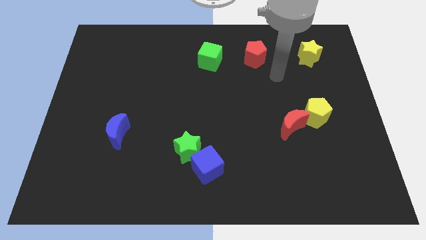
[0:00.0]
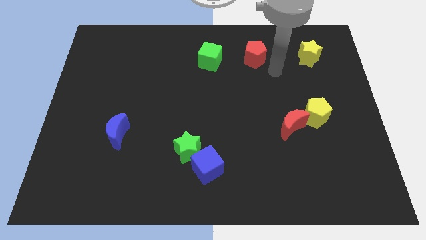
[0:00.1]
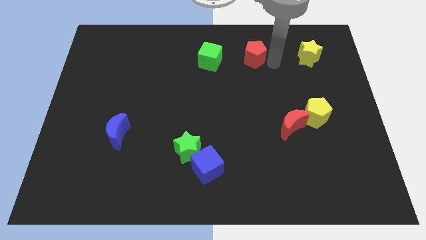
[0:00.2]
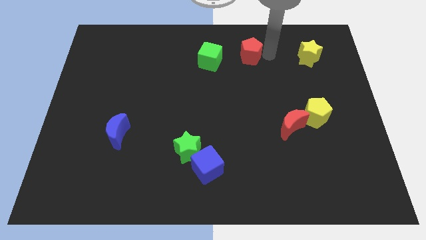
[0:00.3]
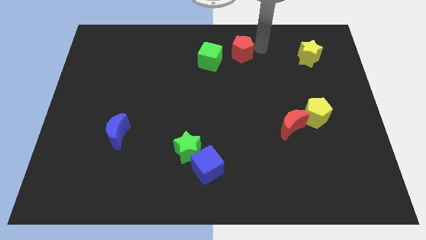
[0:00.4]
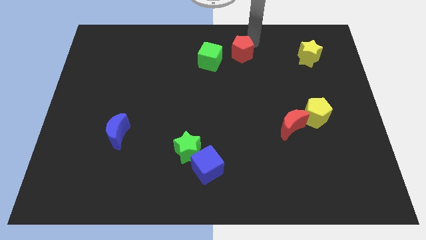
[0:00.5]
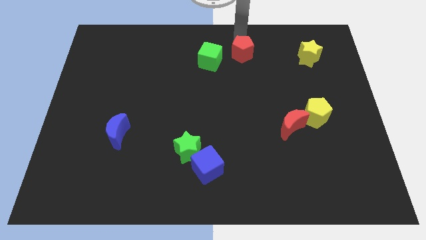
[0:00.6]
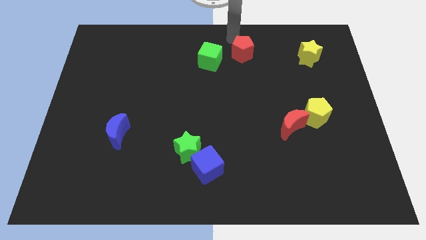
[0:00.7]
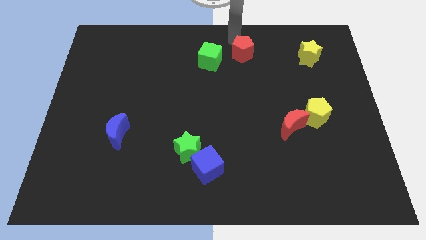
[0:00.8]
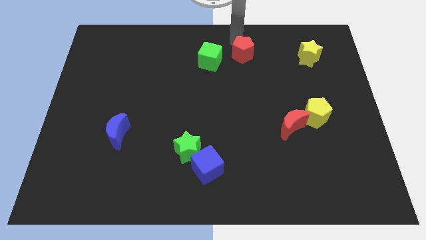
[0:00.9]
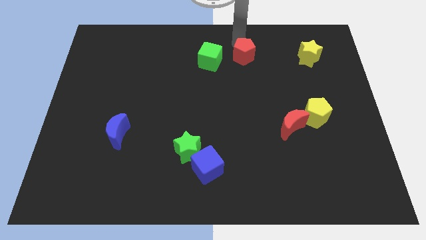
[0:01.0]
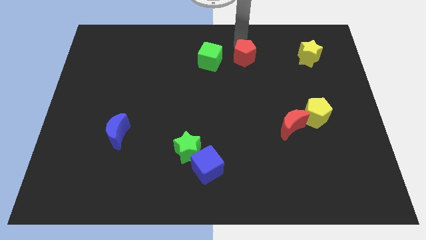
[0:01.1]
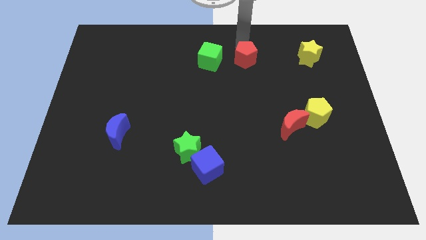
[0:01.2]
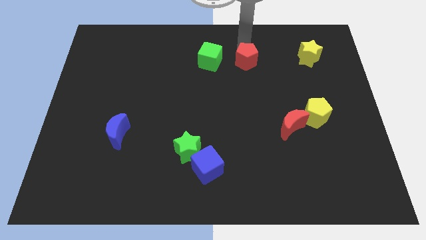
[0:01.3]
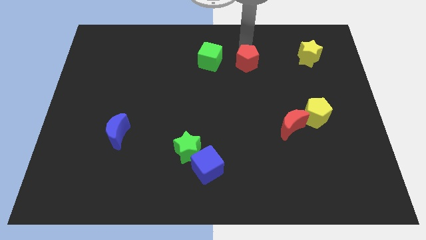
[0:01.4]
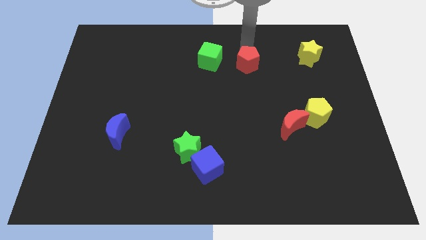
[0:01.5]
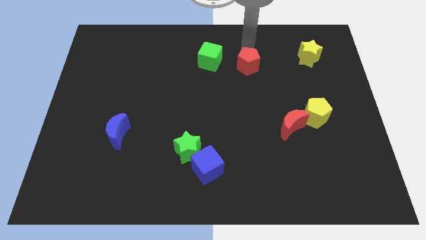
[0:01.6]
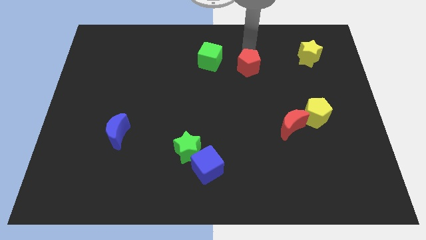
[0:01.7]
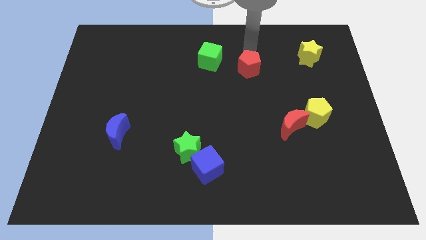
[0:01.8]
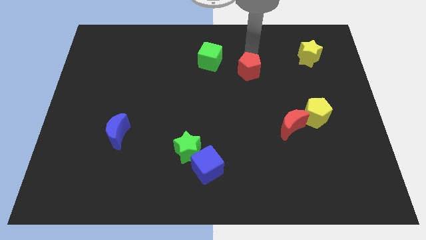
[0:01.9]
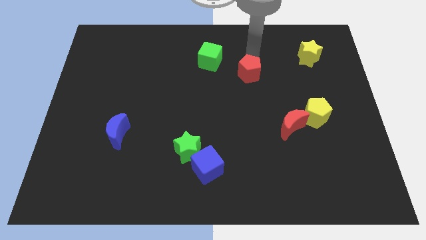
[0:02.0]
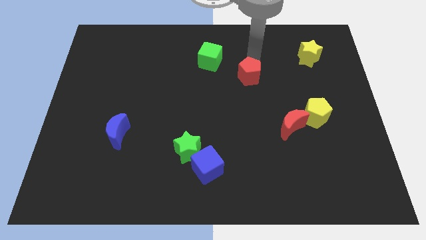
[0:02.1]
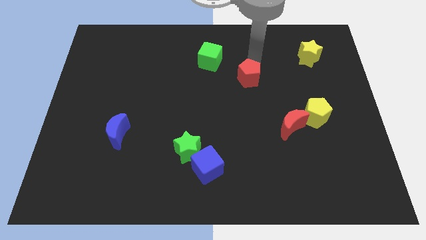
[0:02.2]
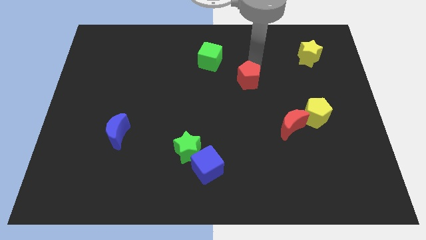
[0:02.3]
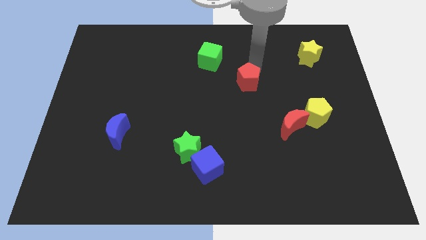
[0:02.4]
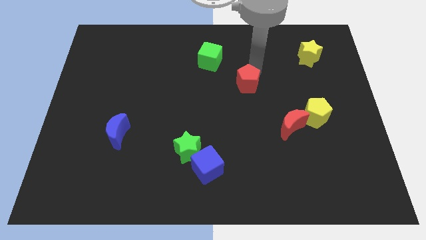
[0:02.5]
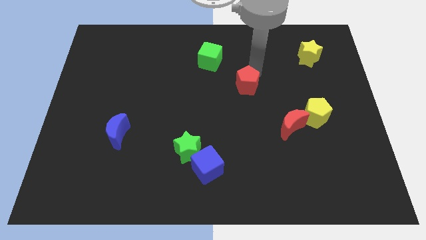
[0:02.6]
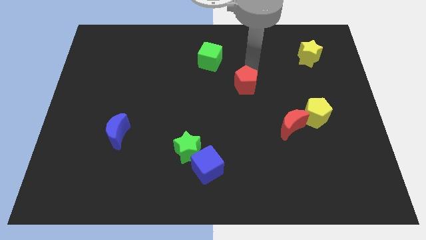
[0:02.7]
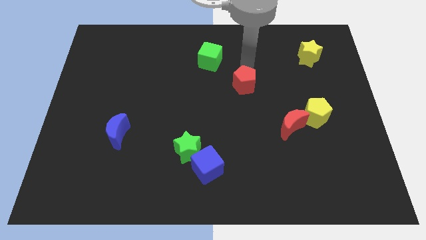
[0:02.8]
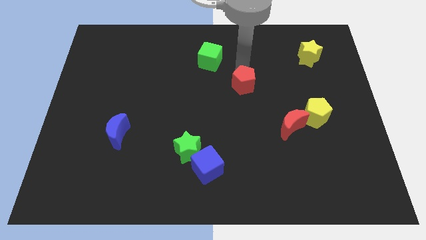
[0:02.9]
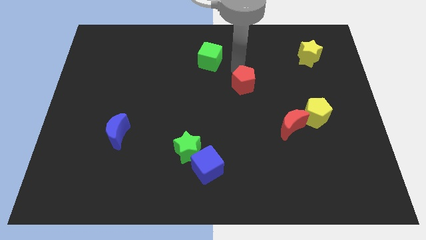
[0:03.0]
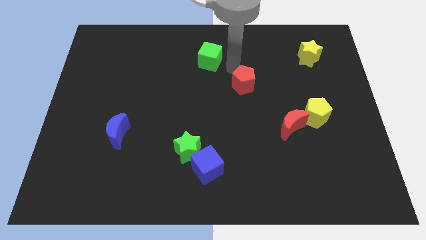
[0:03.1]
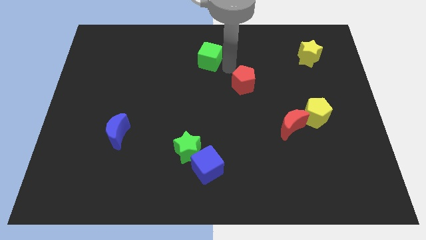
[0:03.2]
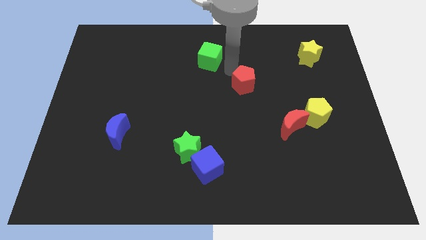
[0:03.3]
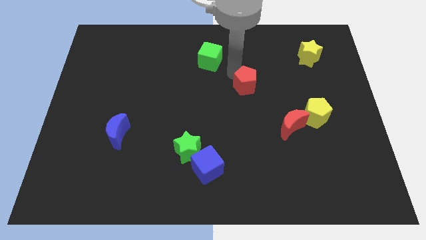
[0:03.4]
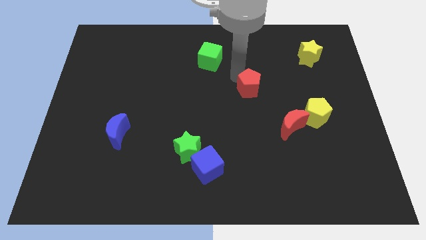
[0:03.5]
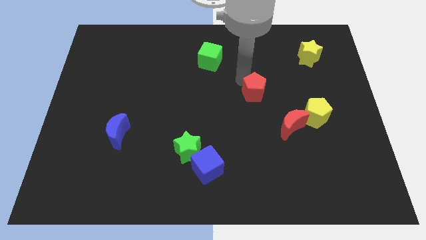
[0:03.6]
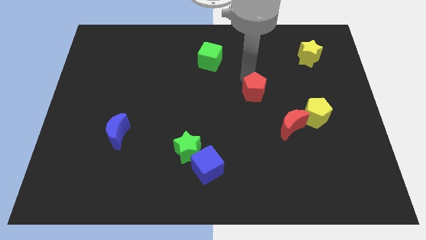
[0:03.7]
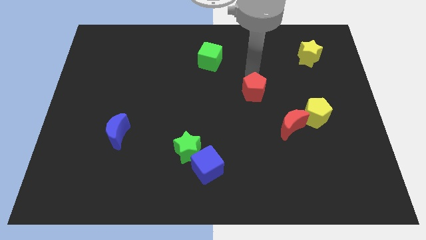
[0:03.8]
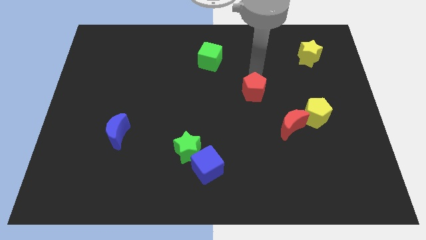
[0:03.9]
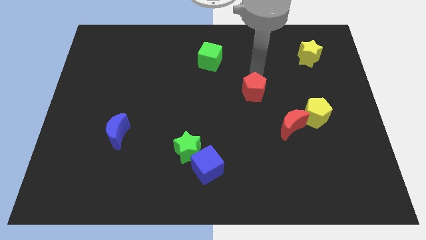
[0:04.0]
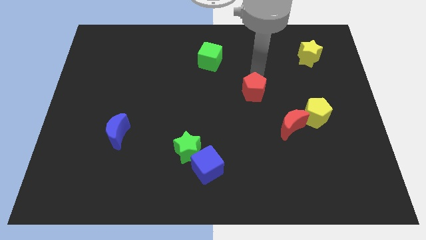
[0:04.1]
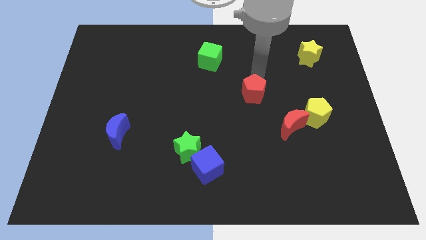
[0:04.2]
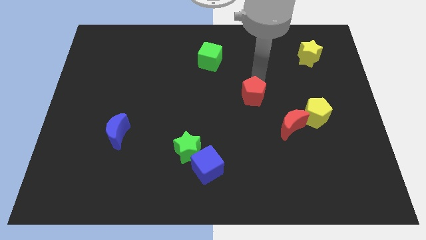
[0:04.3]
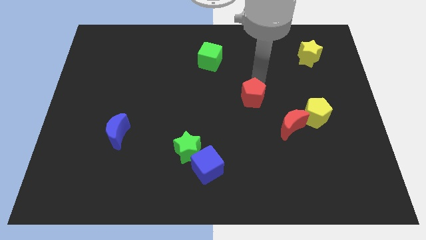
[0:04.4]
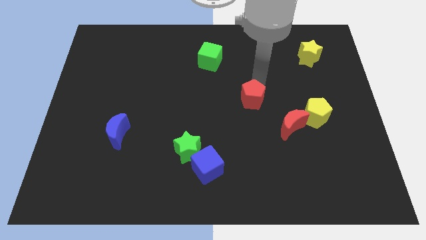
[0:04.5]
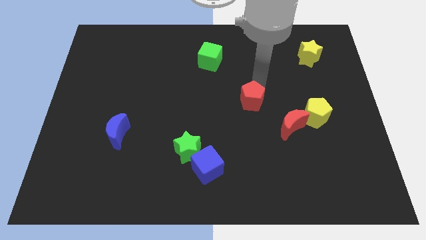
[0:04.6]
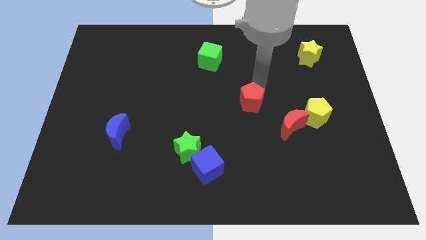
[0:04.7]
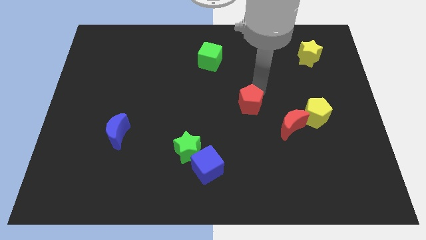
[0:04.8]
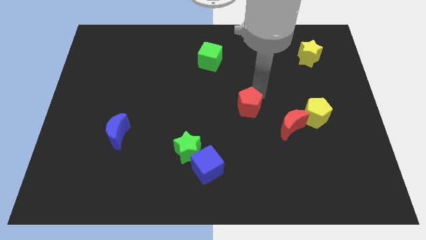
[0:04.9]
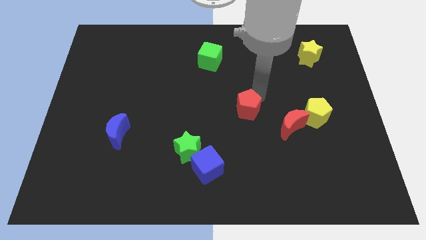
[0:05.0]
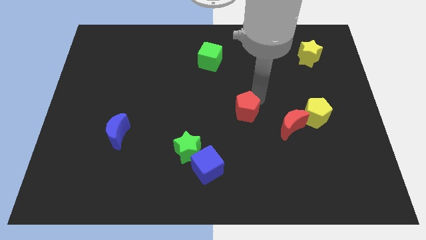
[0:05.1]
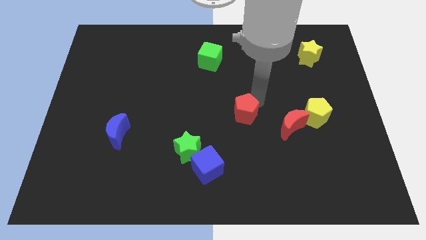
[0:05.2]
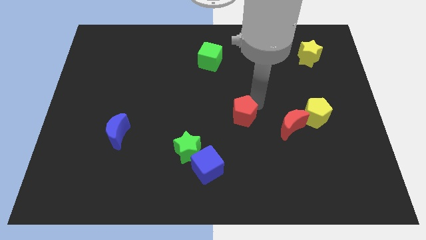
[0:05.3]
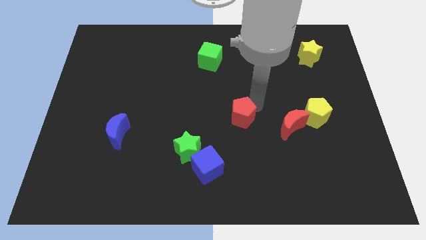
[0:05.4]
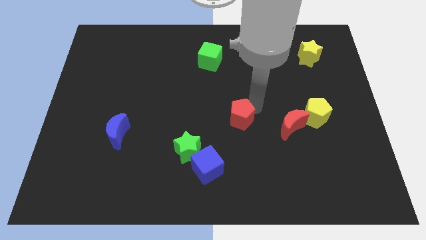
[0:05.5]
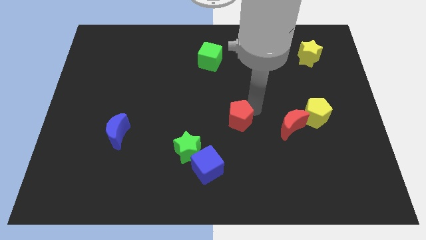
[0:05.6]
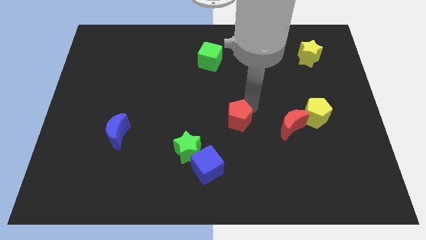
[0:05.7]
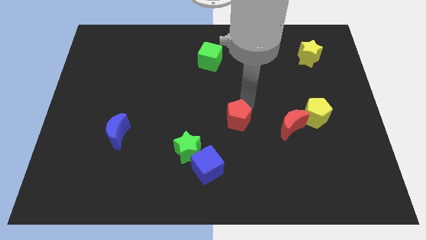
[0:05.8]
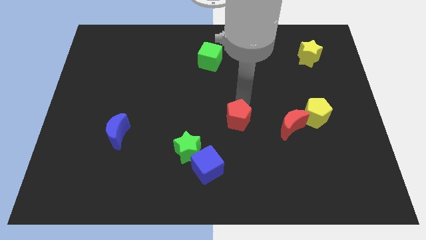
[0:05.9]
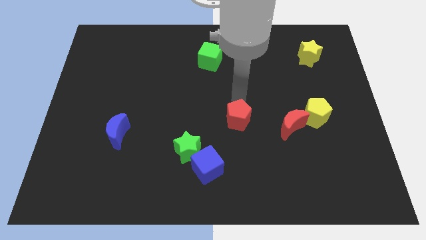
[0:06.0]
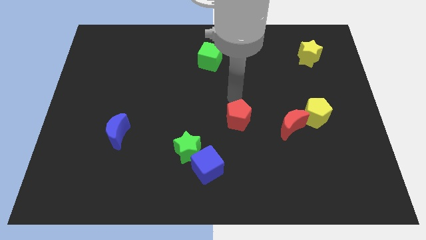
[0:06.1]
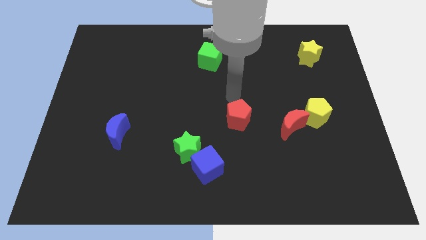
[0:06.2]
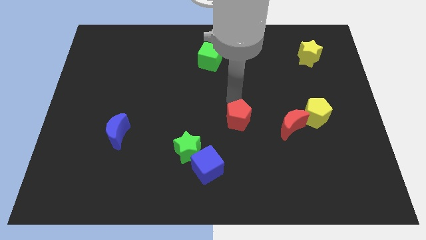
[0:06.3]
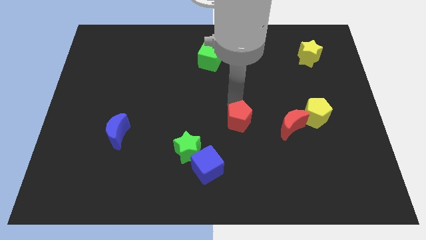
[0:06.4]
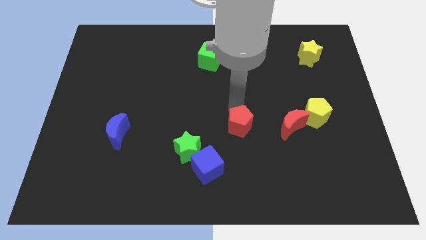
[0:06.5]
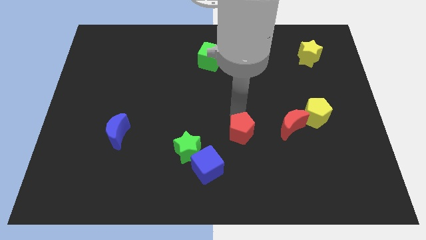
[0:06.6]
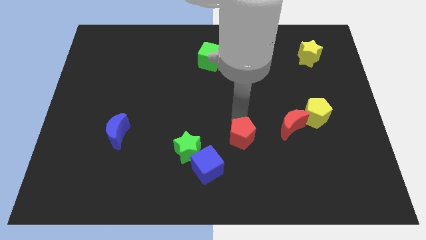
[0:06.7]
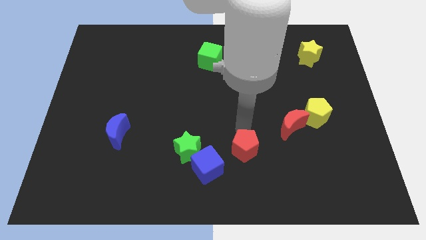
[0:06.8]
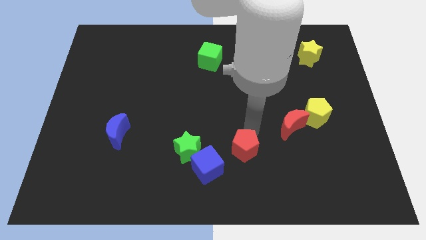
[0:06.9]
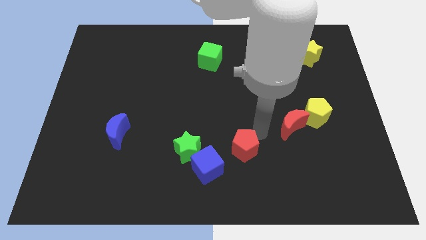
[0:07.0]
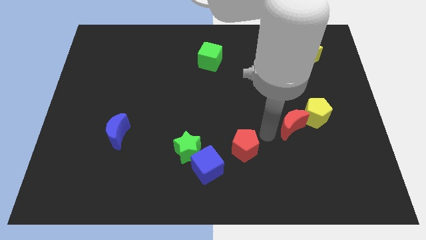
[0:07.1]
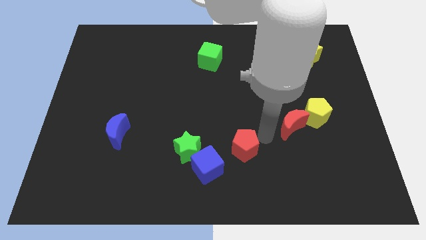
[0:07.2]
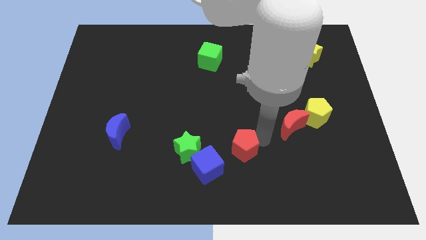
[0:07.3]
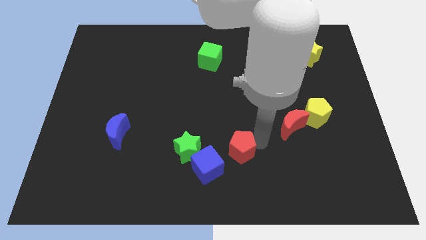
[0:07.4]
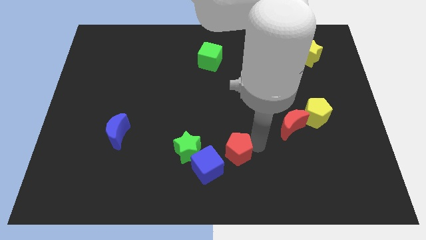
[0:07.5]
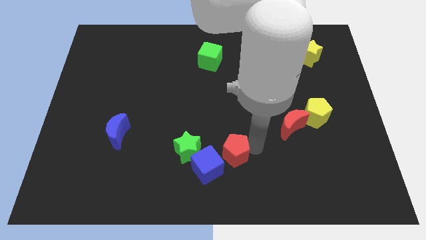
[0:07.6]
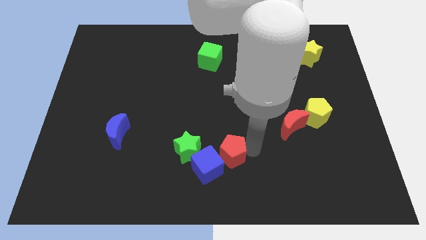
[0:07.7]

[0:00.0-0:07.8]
move the red pentagon close to the blue cube

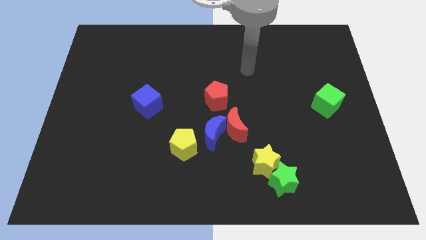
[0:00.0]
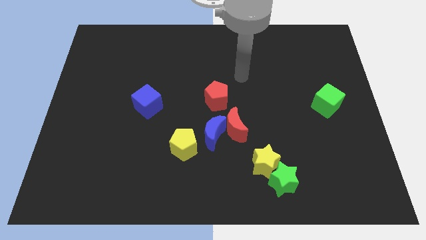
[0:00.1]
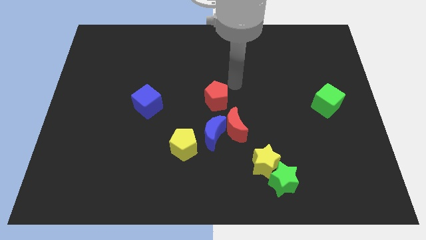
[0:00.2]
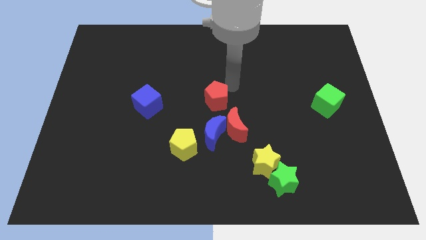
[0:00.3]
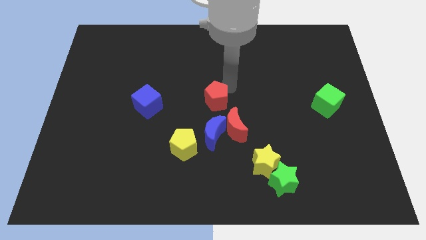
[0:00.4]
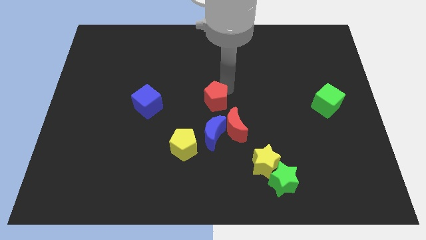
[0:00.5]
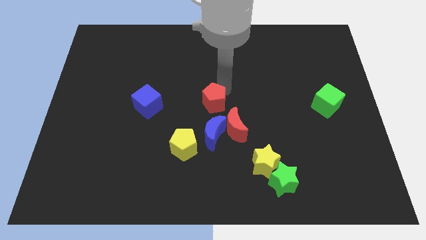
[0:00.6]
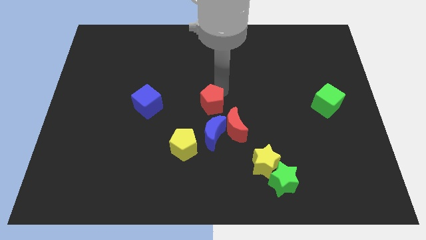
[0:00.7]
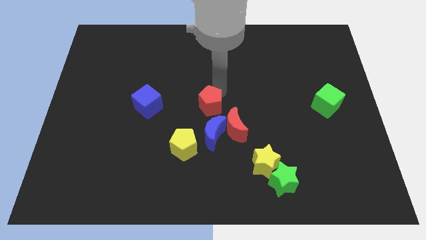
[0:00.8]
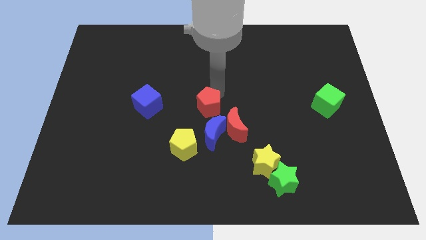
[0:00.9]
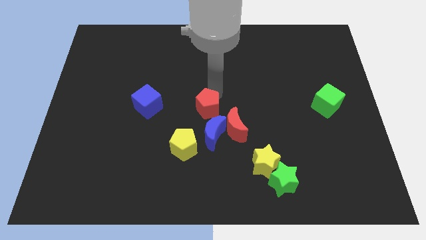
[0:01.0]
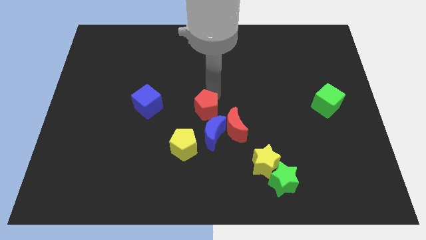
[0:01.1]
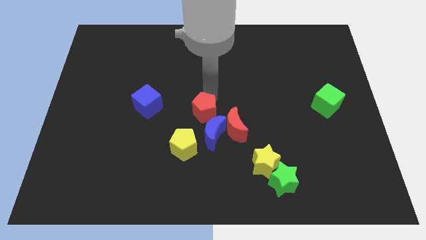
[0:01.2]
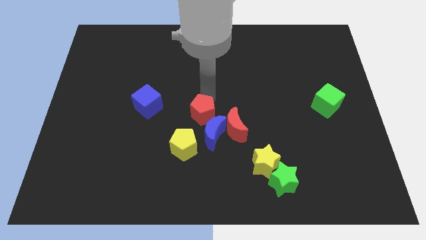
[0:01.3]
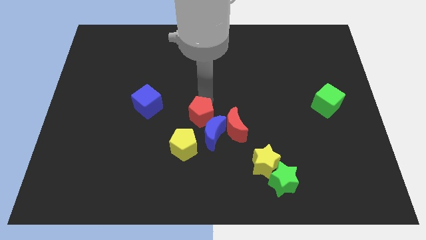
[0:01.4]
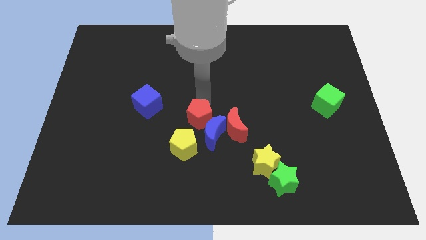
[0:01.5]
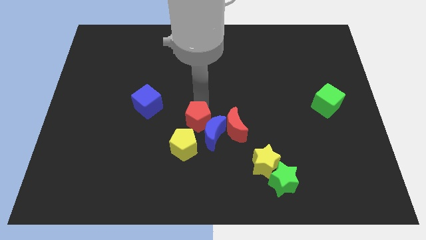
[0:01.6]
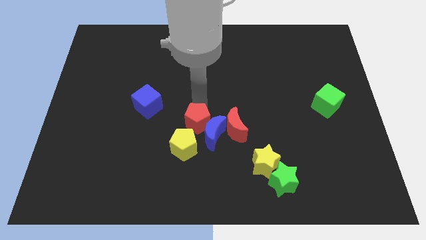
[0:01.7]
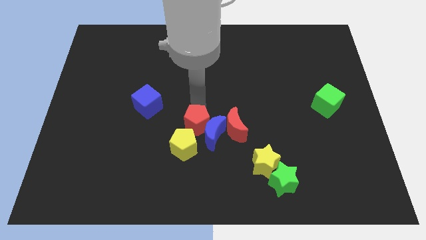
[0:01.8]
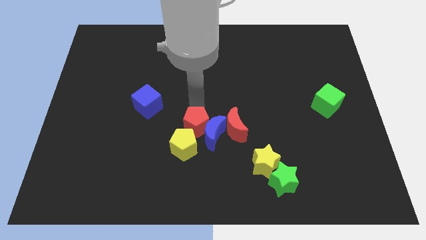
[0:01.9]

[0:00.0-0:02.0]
put the red pentagon to the yellow pentagon
